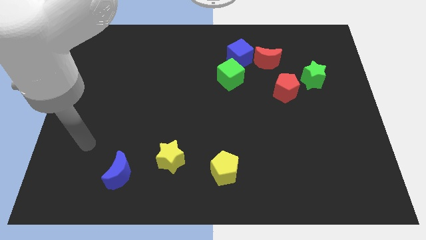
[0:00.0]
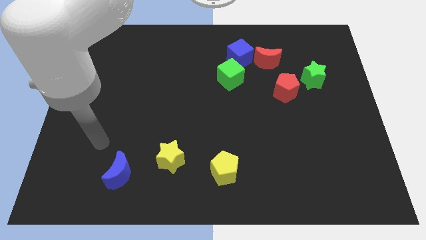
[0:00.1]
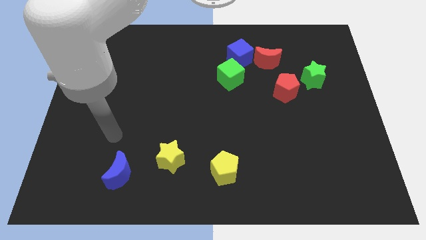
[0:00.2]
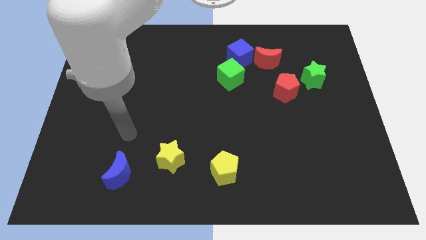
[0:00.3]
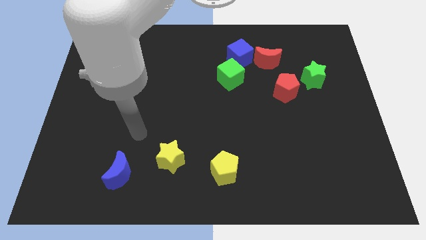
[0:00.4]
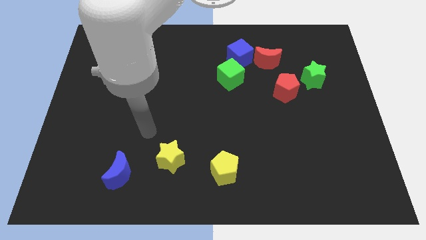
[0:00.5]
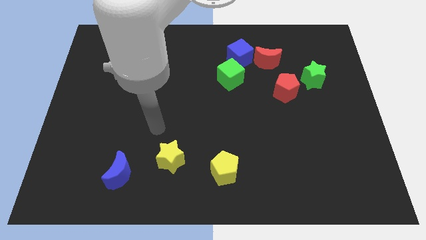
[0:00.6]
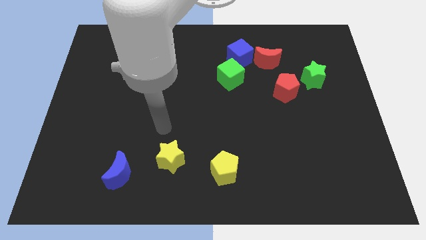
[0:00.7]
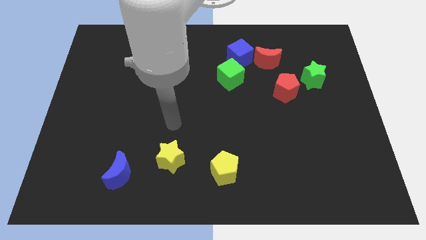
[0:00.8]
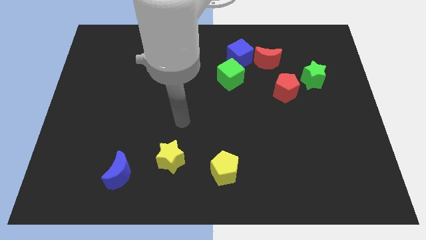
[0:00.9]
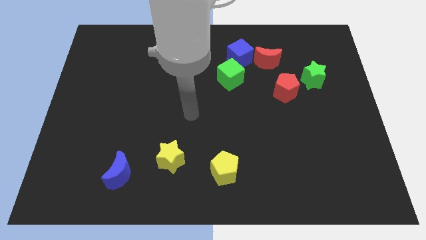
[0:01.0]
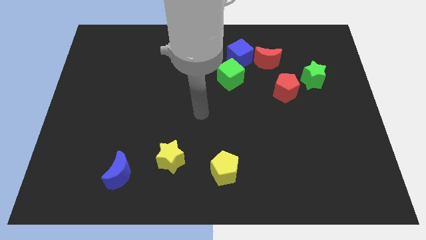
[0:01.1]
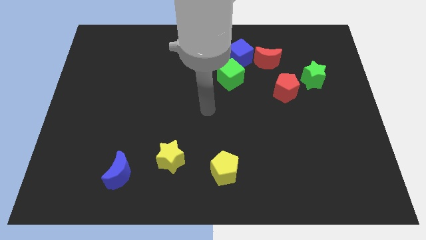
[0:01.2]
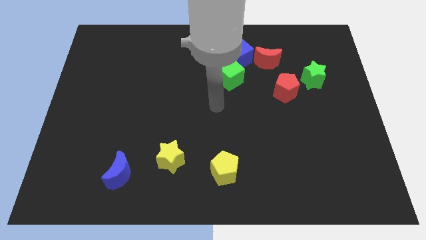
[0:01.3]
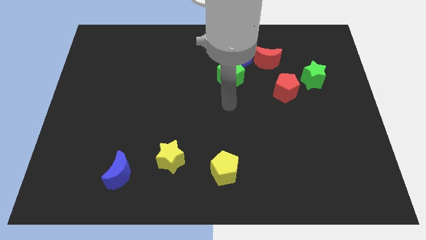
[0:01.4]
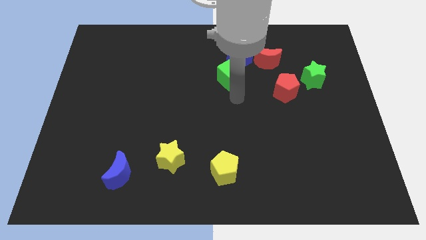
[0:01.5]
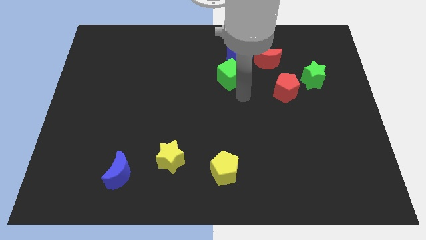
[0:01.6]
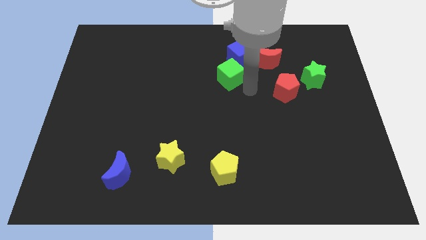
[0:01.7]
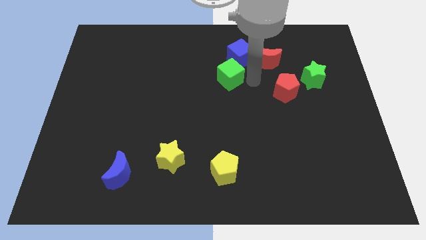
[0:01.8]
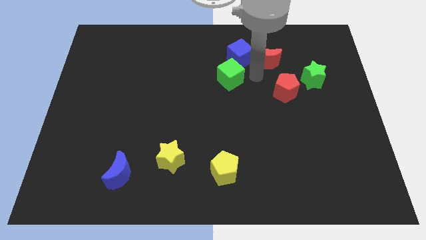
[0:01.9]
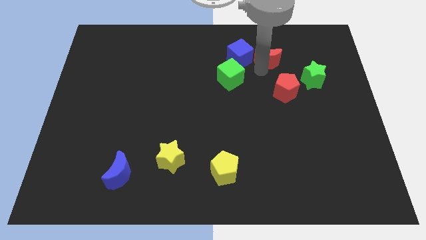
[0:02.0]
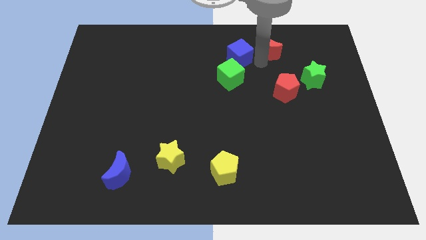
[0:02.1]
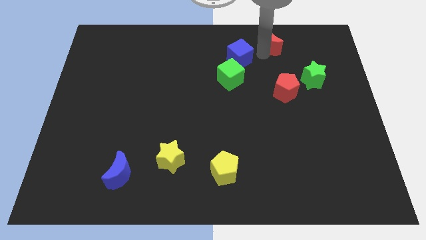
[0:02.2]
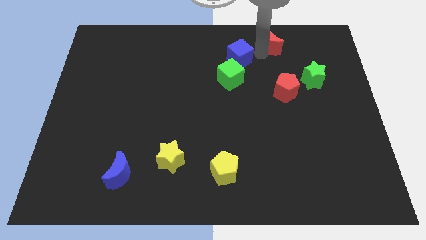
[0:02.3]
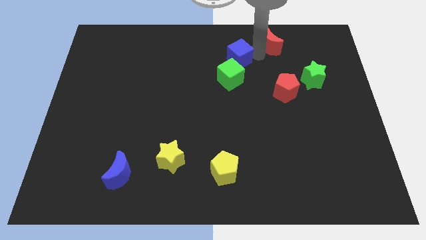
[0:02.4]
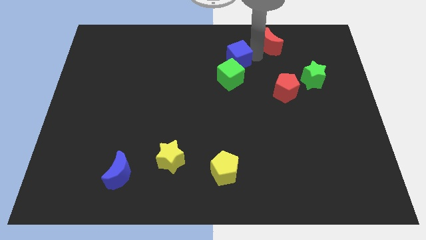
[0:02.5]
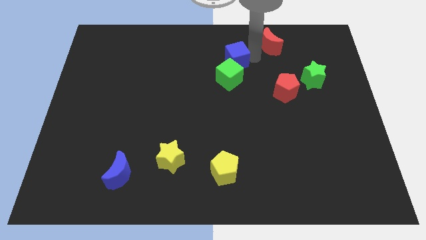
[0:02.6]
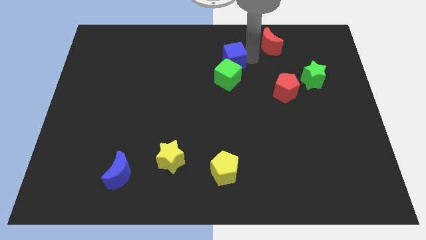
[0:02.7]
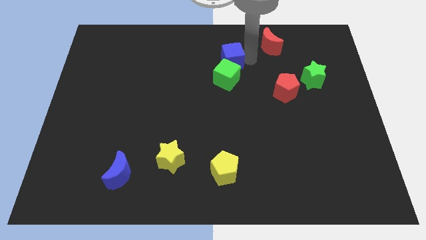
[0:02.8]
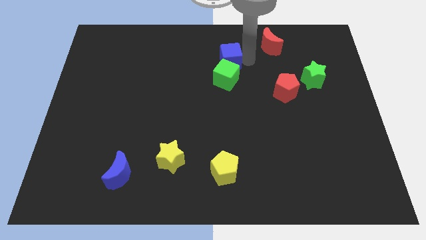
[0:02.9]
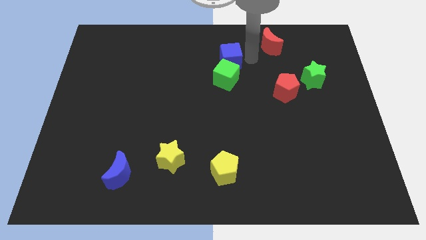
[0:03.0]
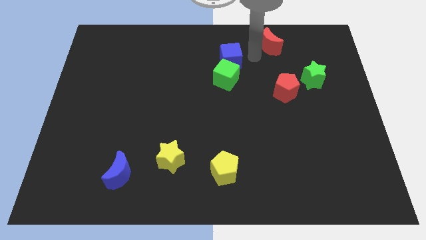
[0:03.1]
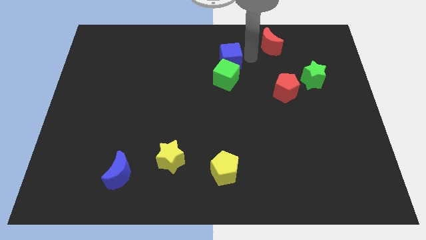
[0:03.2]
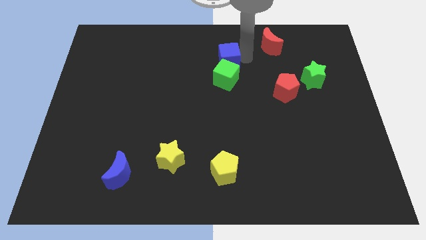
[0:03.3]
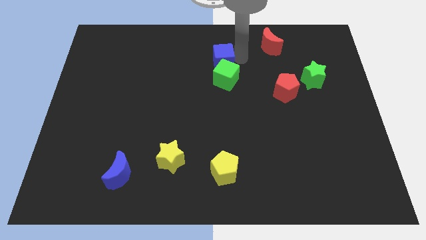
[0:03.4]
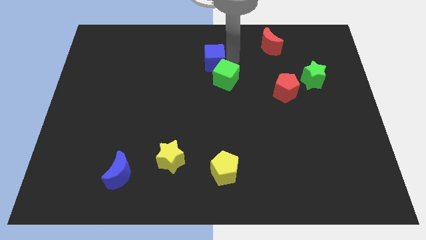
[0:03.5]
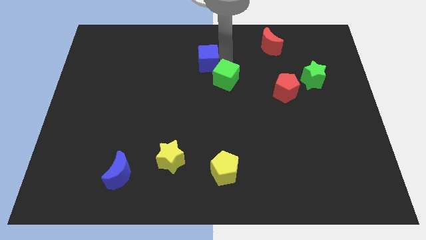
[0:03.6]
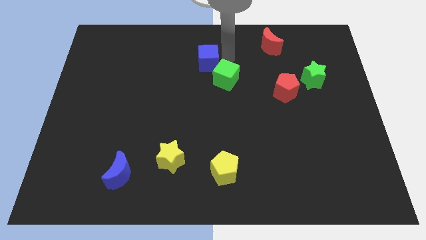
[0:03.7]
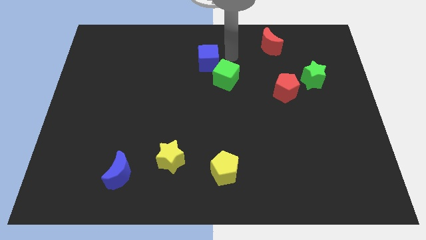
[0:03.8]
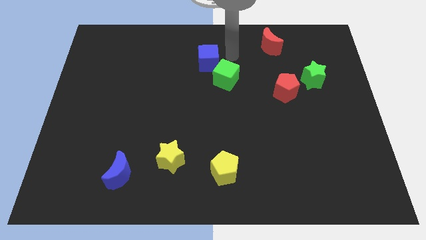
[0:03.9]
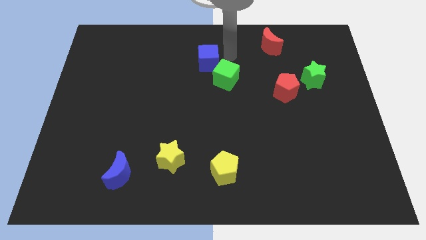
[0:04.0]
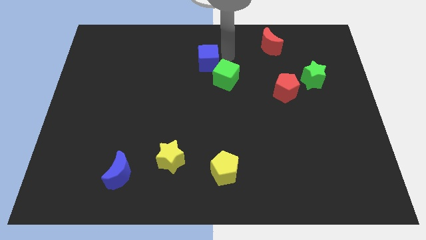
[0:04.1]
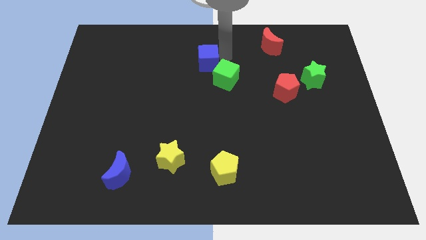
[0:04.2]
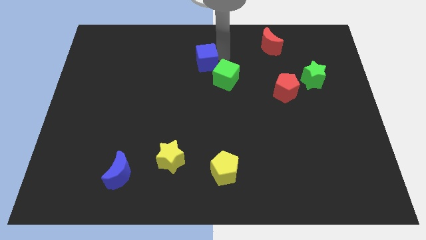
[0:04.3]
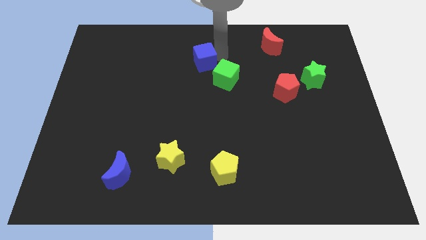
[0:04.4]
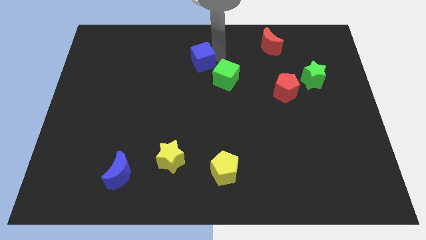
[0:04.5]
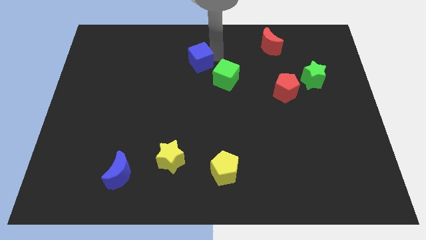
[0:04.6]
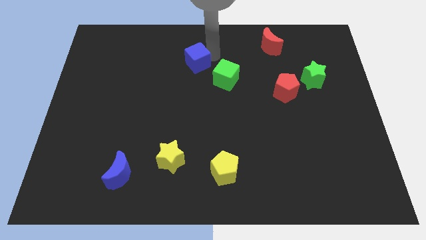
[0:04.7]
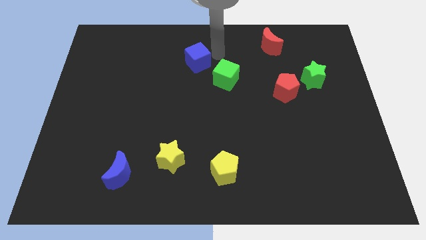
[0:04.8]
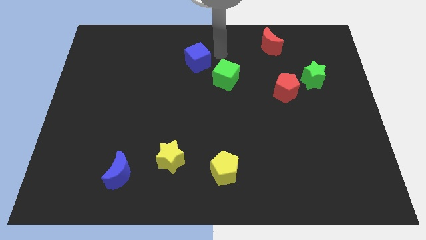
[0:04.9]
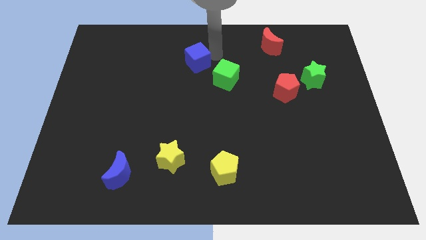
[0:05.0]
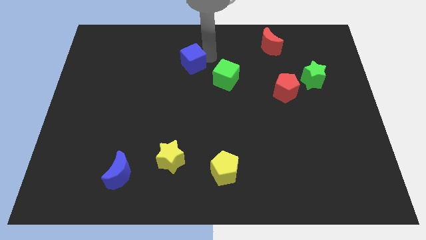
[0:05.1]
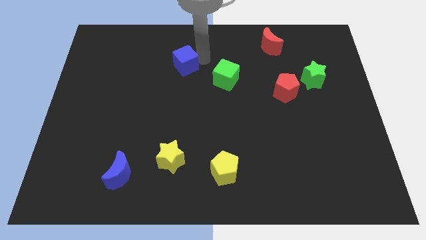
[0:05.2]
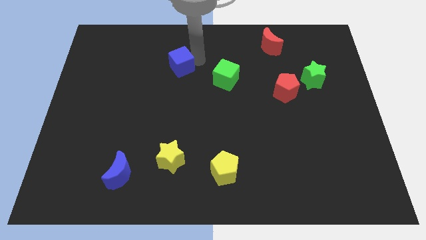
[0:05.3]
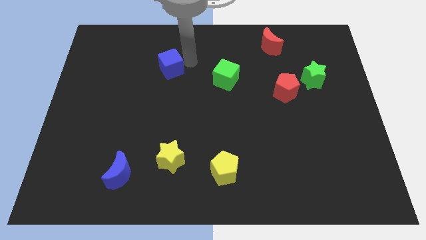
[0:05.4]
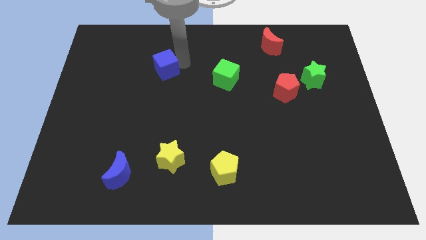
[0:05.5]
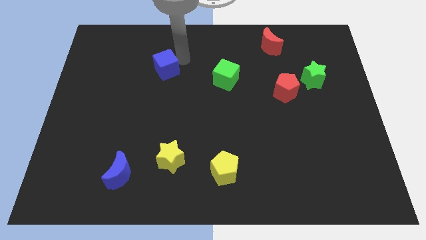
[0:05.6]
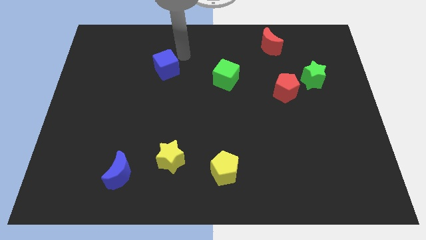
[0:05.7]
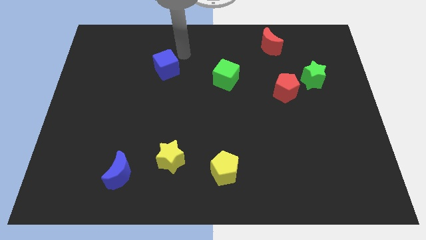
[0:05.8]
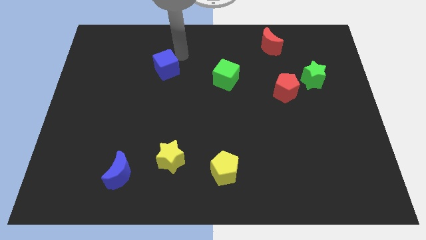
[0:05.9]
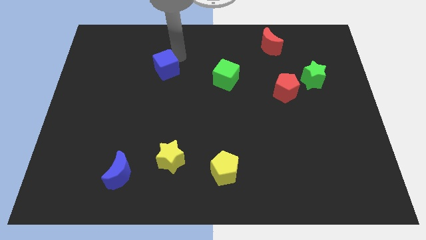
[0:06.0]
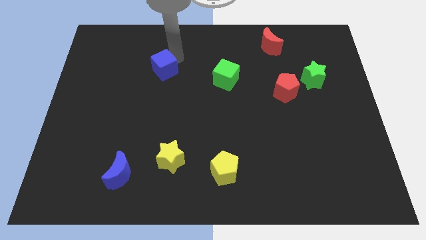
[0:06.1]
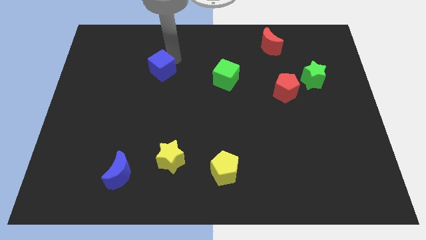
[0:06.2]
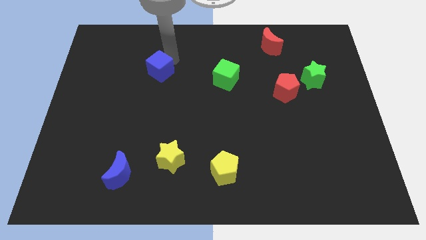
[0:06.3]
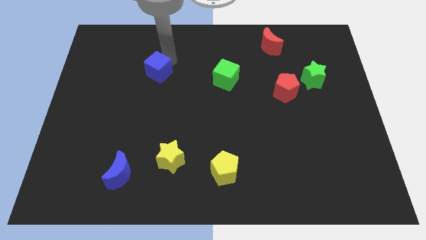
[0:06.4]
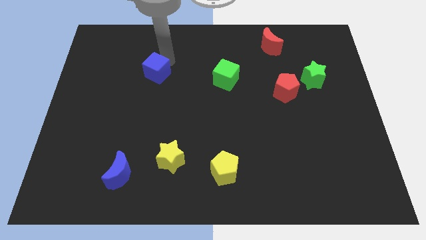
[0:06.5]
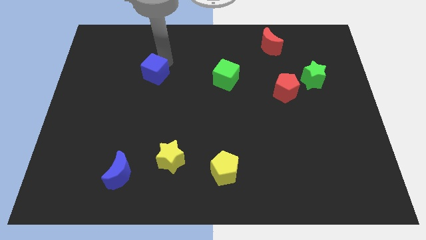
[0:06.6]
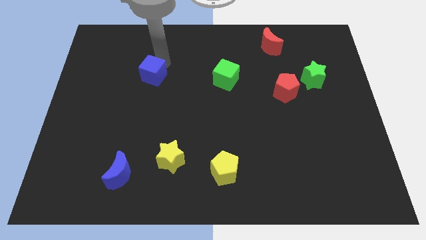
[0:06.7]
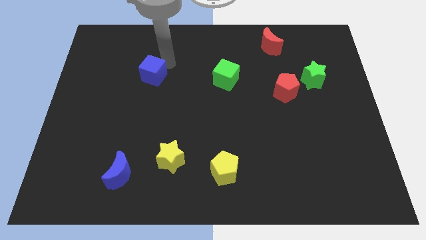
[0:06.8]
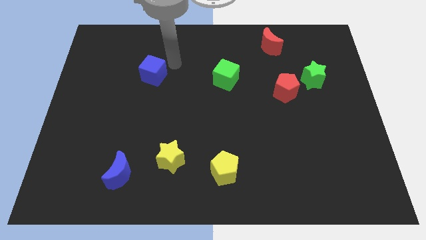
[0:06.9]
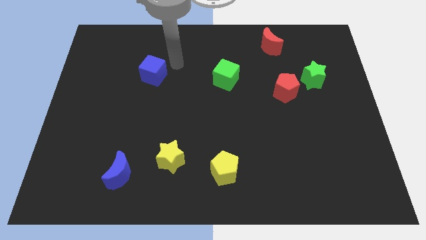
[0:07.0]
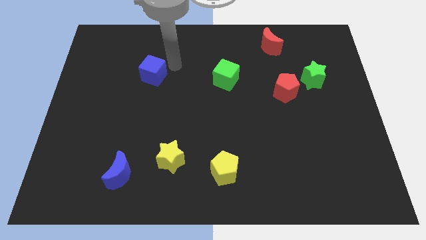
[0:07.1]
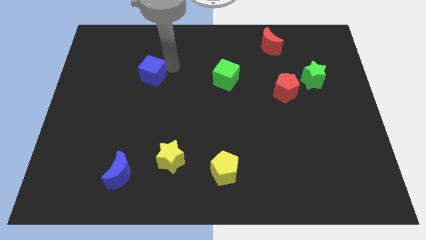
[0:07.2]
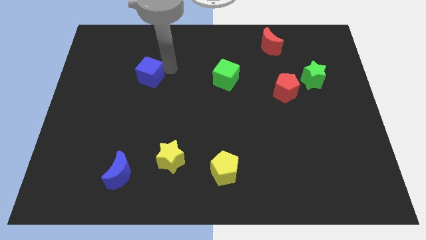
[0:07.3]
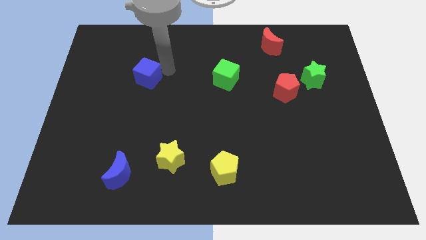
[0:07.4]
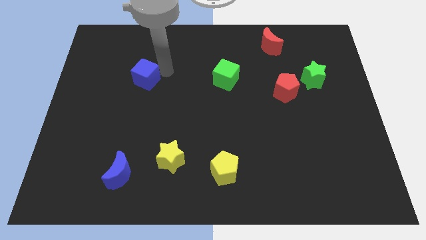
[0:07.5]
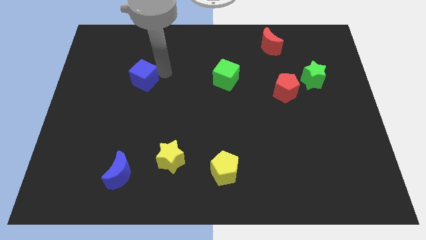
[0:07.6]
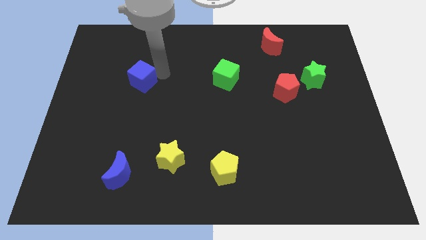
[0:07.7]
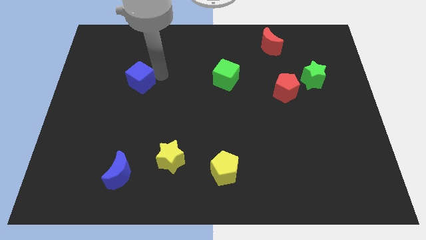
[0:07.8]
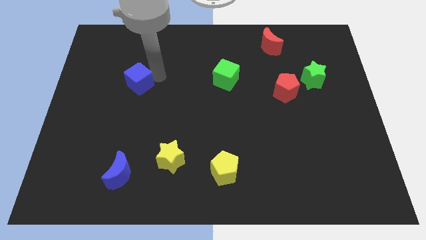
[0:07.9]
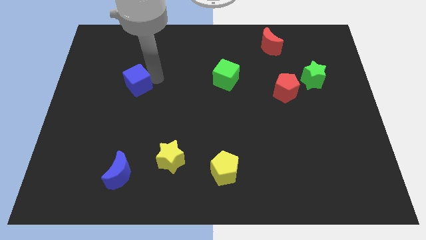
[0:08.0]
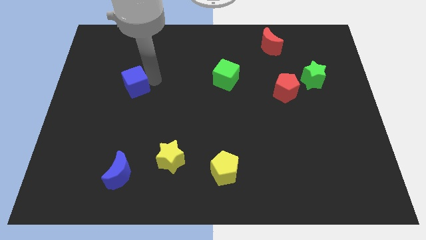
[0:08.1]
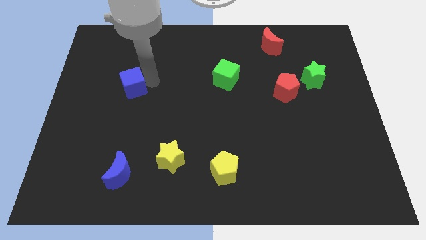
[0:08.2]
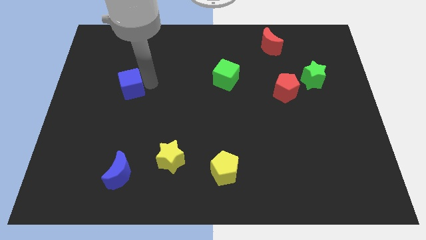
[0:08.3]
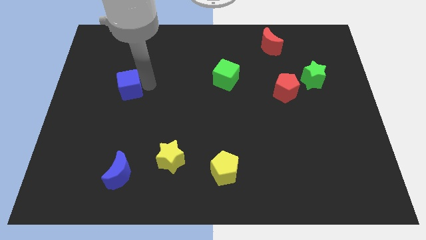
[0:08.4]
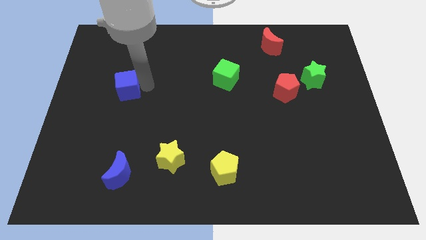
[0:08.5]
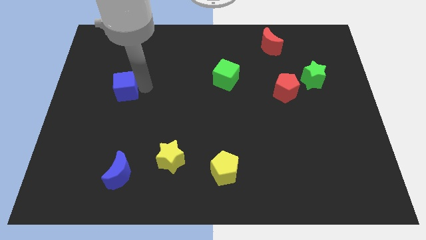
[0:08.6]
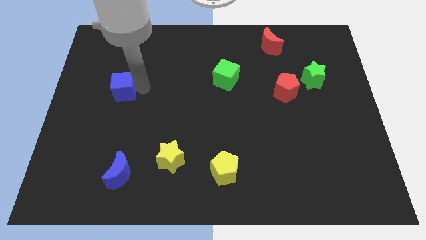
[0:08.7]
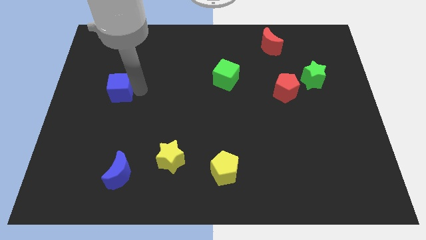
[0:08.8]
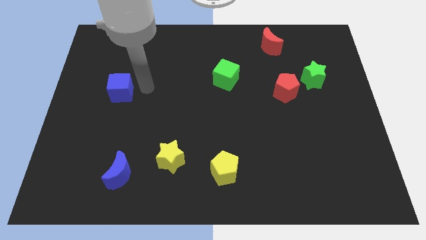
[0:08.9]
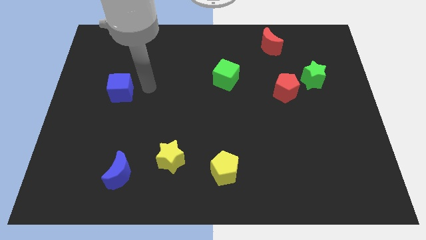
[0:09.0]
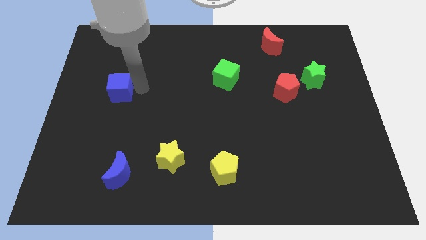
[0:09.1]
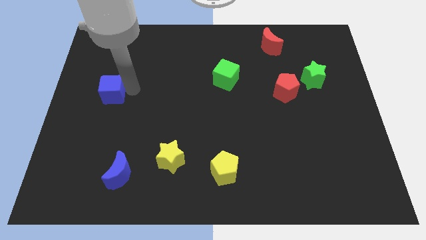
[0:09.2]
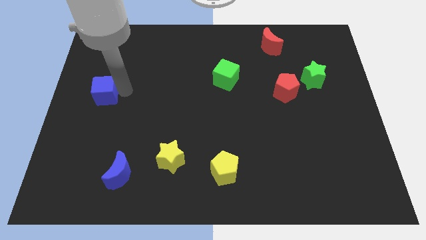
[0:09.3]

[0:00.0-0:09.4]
move the blue cube to the center left
